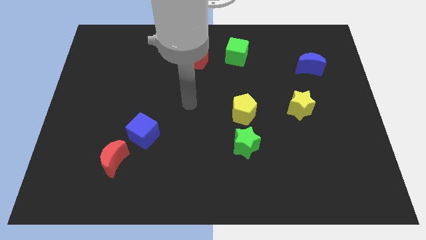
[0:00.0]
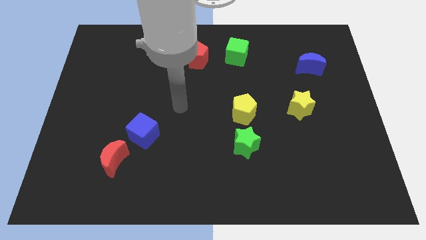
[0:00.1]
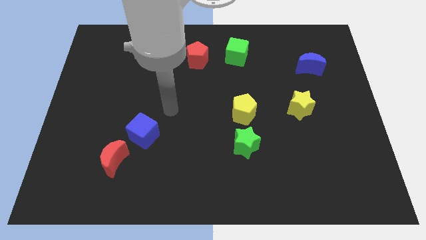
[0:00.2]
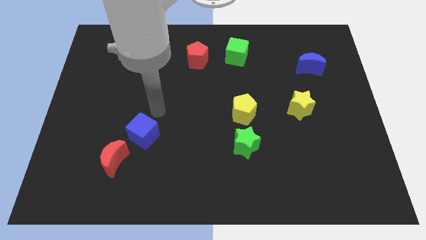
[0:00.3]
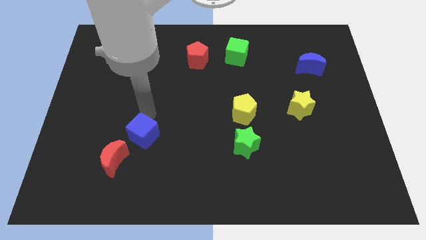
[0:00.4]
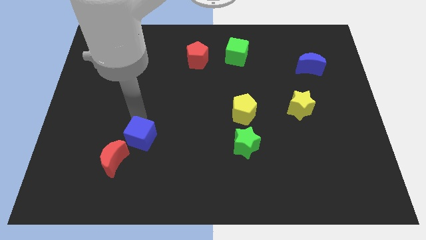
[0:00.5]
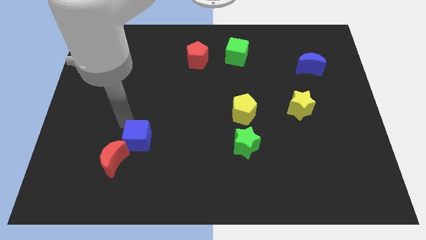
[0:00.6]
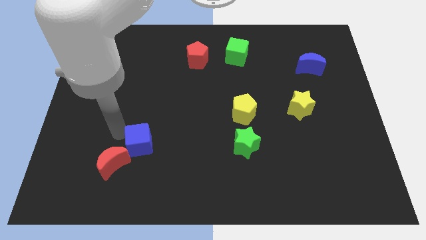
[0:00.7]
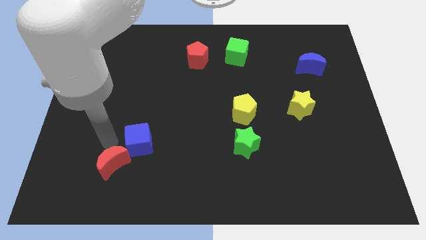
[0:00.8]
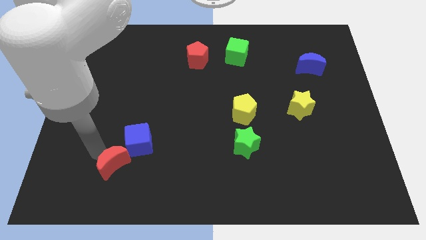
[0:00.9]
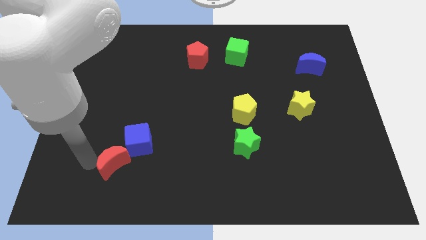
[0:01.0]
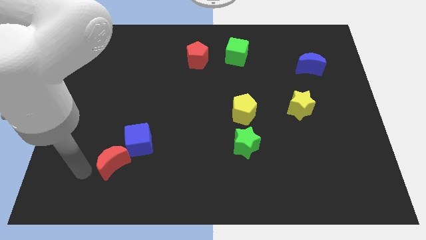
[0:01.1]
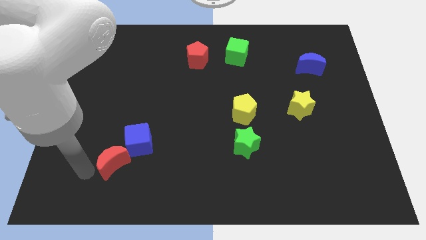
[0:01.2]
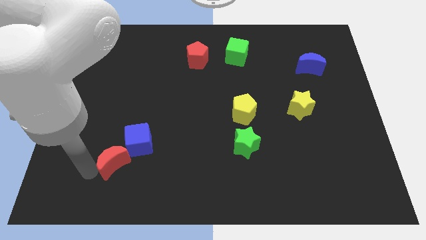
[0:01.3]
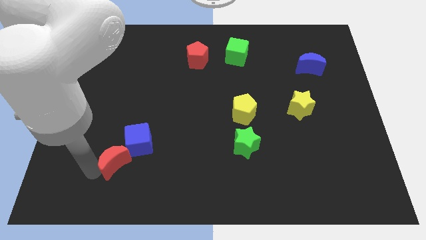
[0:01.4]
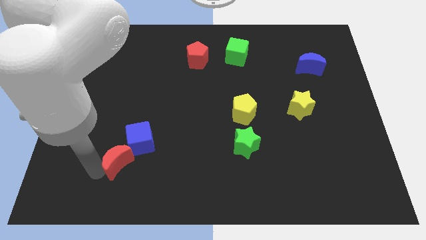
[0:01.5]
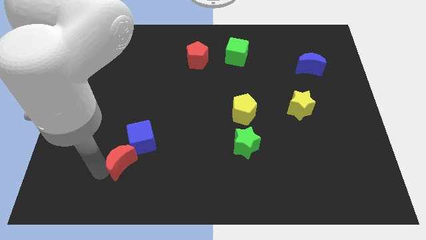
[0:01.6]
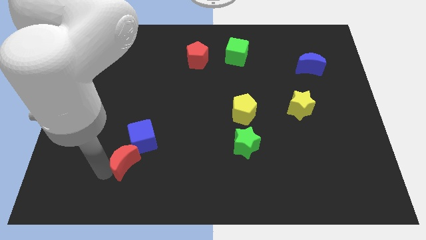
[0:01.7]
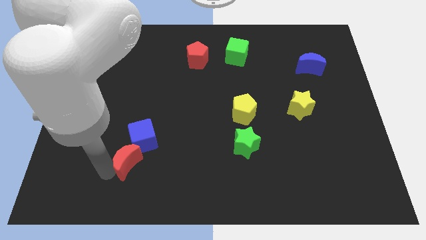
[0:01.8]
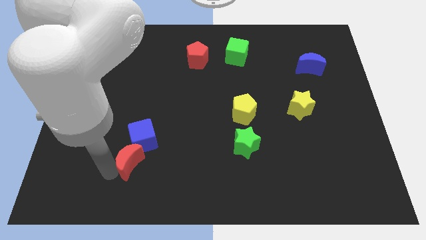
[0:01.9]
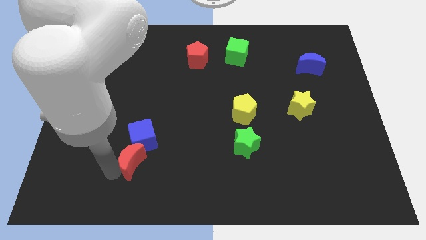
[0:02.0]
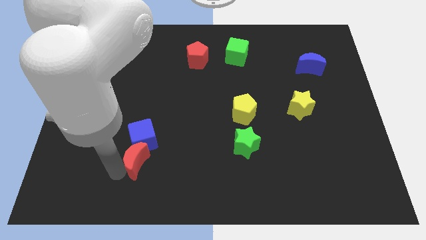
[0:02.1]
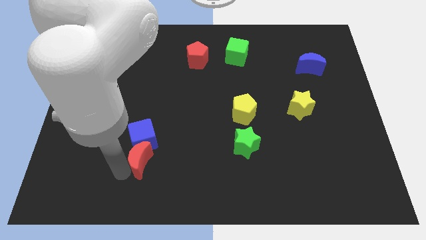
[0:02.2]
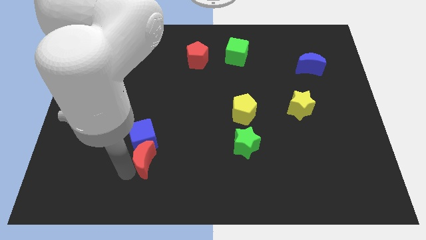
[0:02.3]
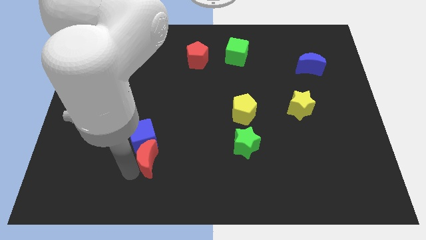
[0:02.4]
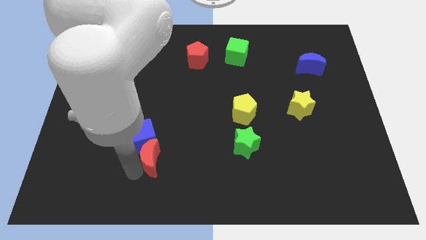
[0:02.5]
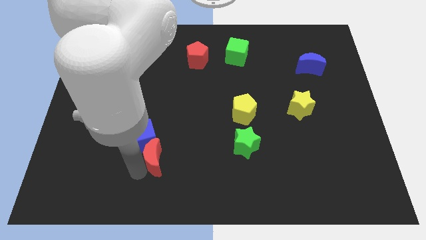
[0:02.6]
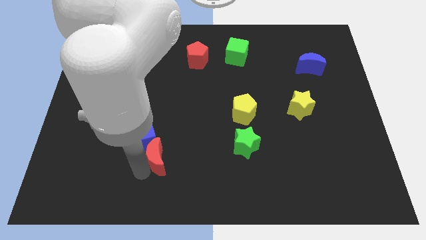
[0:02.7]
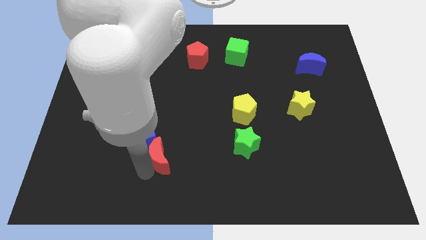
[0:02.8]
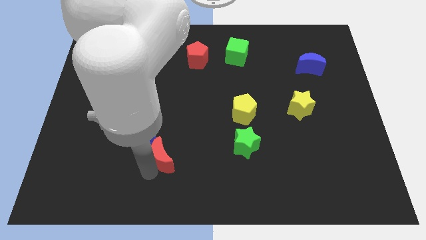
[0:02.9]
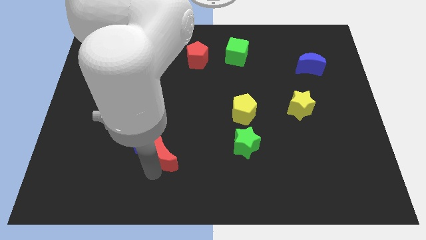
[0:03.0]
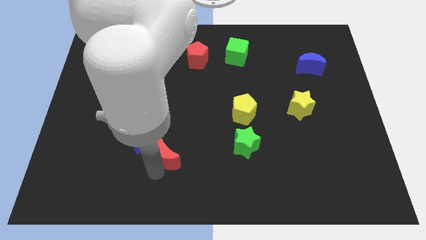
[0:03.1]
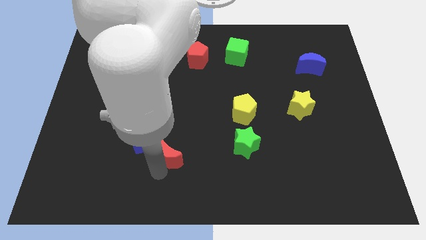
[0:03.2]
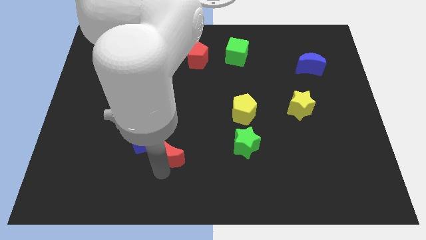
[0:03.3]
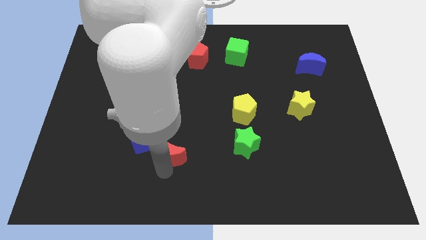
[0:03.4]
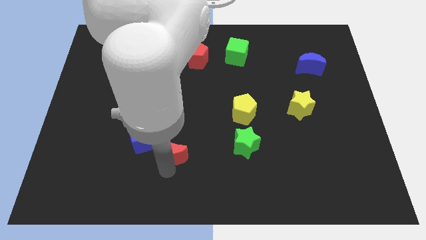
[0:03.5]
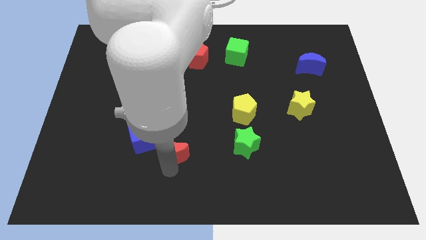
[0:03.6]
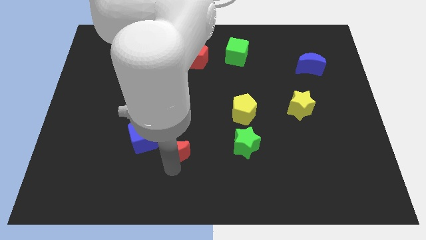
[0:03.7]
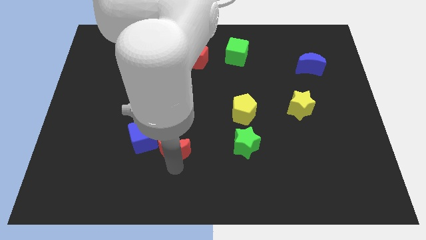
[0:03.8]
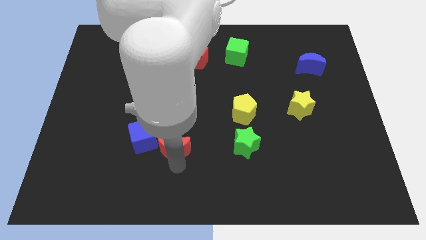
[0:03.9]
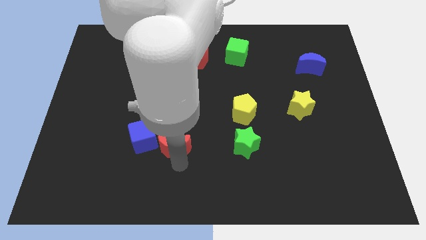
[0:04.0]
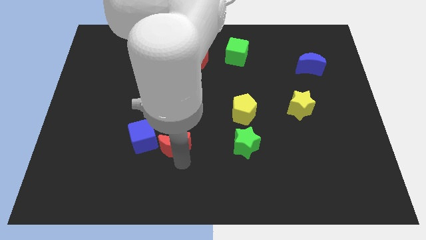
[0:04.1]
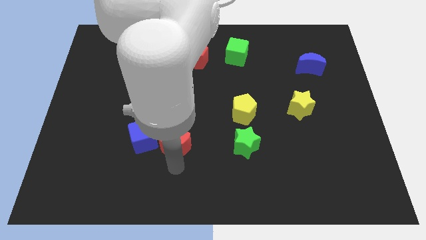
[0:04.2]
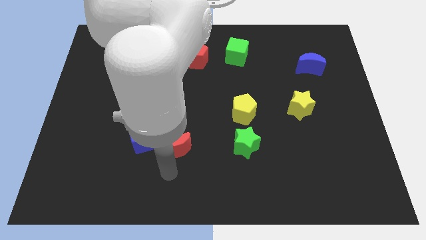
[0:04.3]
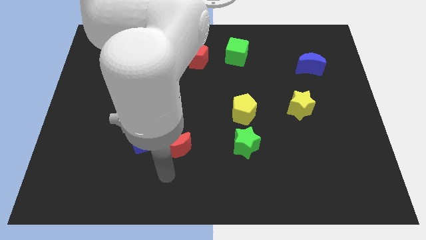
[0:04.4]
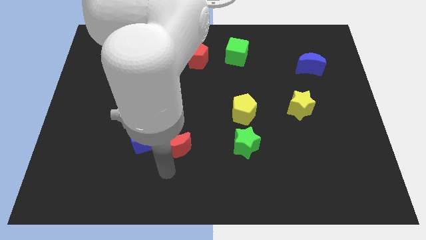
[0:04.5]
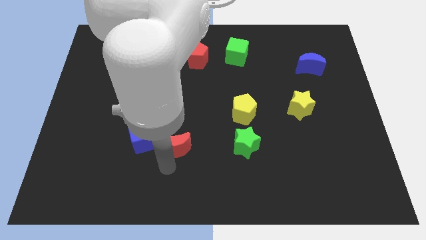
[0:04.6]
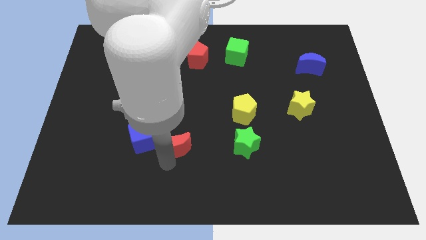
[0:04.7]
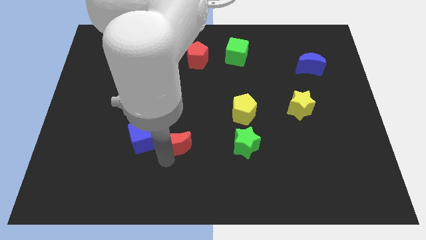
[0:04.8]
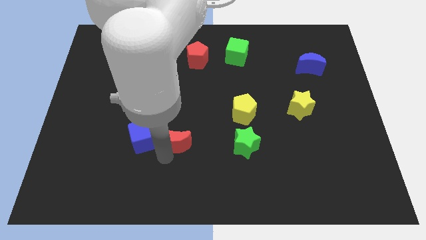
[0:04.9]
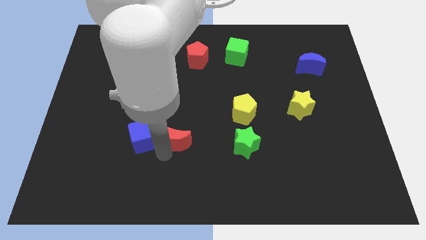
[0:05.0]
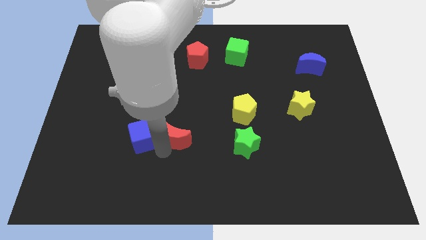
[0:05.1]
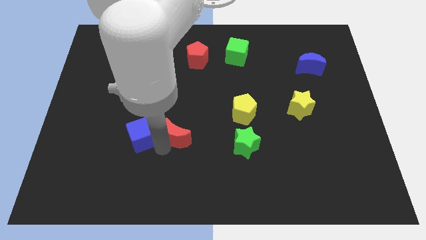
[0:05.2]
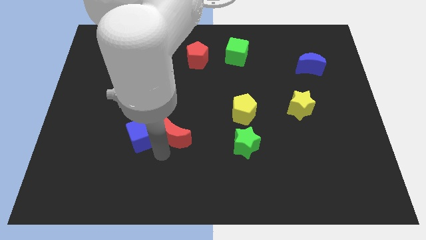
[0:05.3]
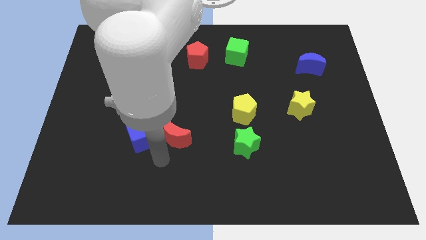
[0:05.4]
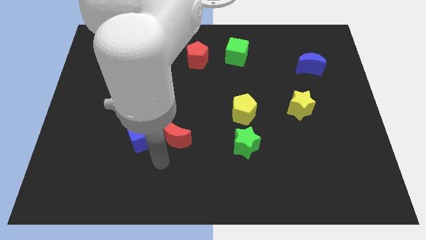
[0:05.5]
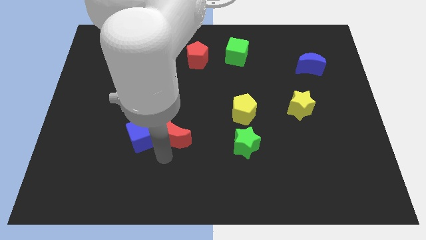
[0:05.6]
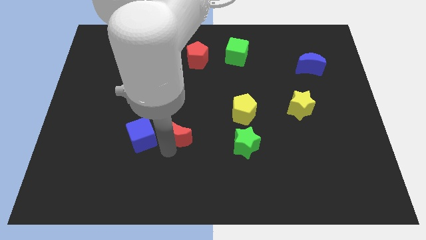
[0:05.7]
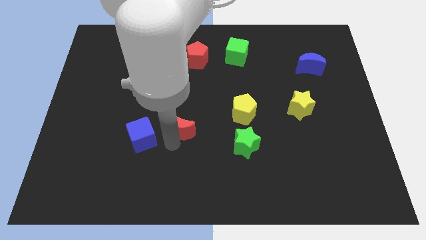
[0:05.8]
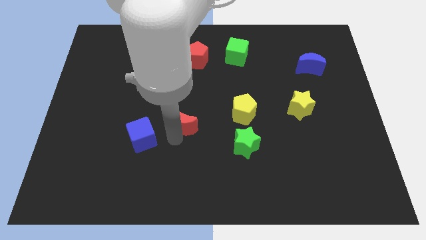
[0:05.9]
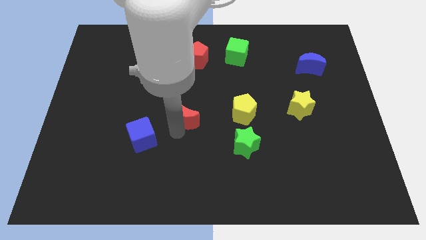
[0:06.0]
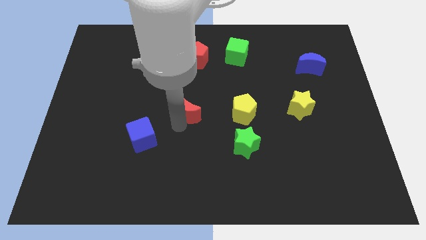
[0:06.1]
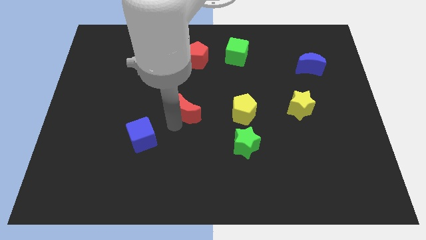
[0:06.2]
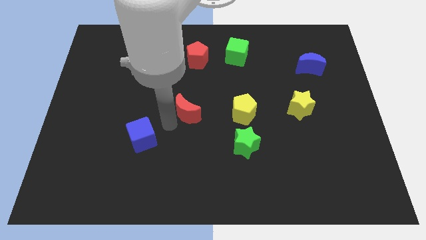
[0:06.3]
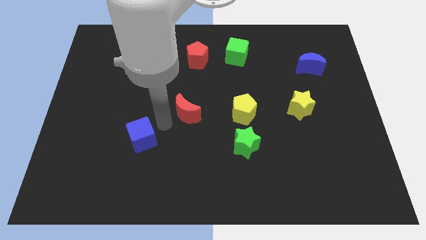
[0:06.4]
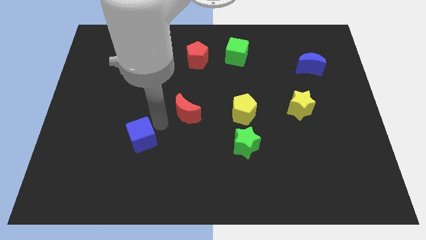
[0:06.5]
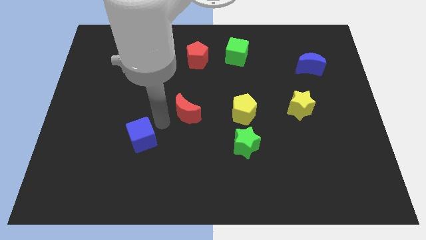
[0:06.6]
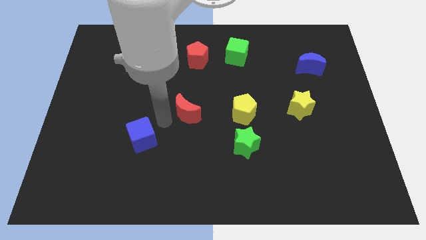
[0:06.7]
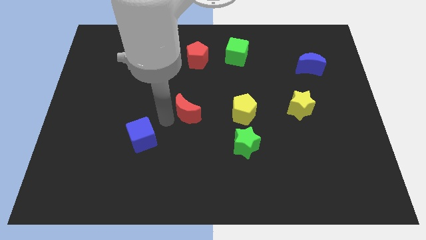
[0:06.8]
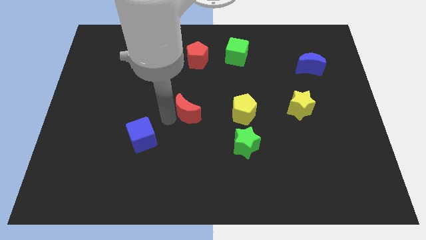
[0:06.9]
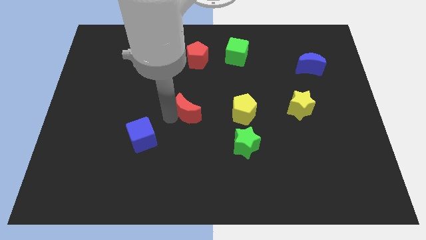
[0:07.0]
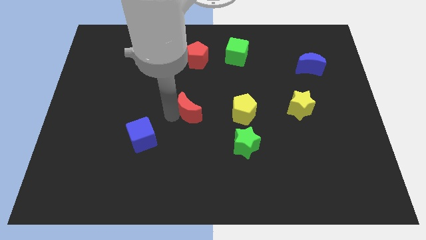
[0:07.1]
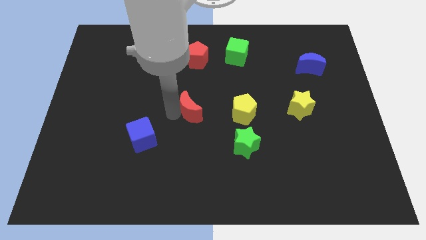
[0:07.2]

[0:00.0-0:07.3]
slide the red moon upwards and then right

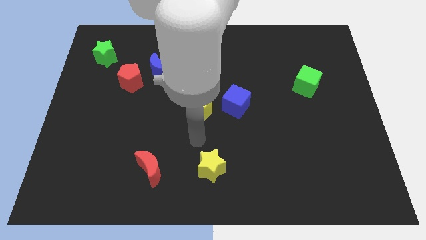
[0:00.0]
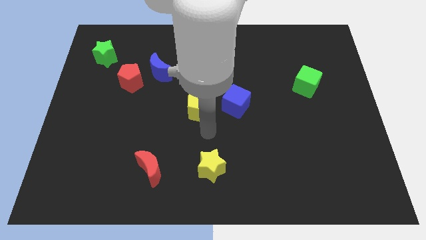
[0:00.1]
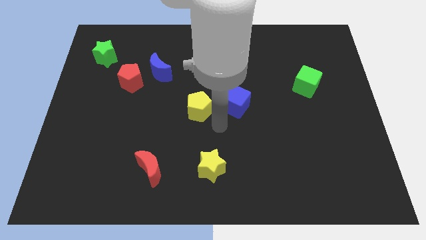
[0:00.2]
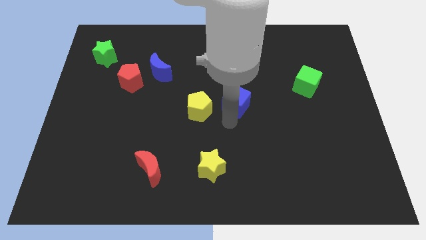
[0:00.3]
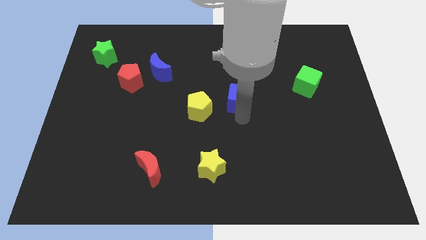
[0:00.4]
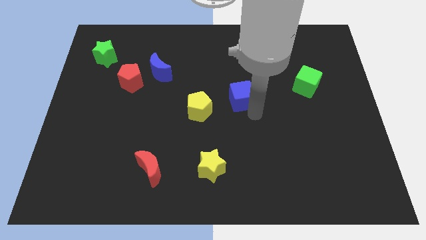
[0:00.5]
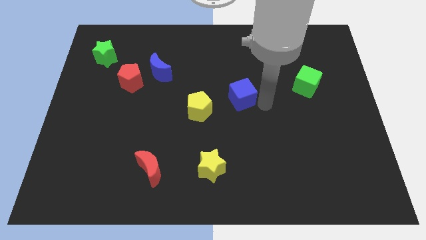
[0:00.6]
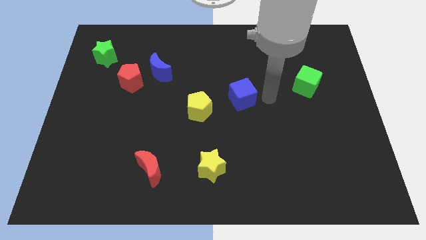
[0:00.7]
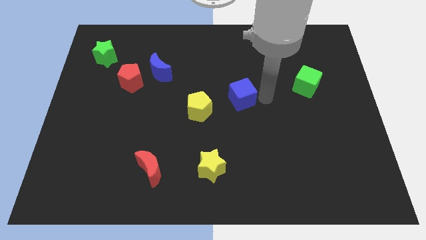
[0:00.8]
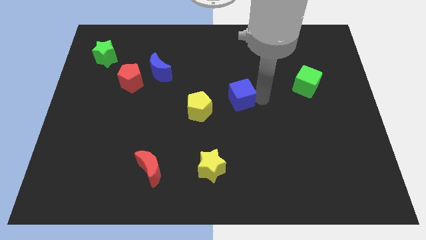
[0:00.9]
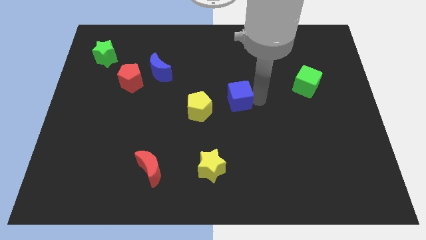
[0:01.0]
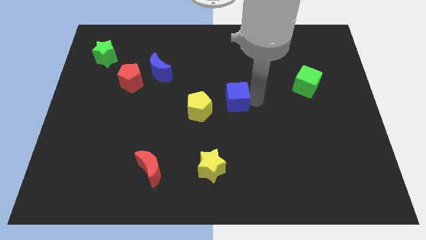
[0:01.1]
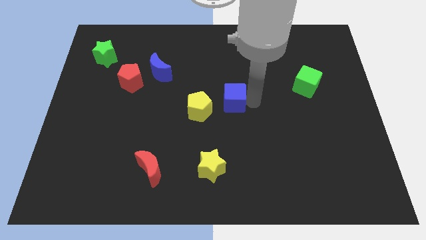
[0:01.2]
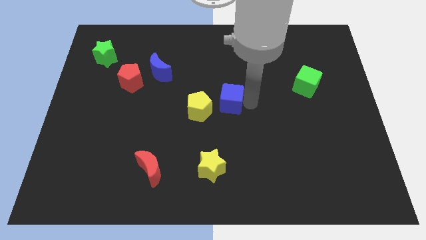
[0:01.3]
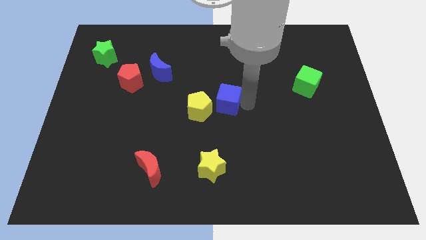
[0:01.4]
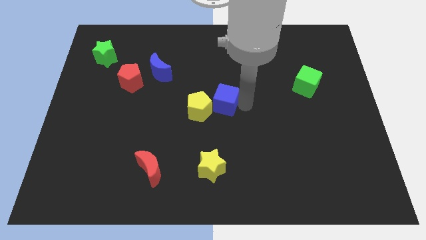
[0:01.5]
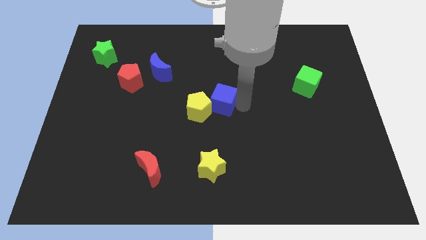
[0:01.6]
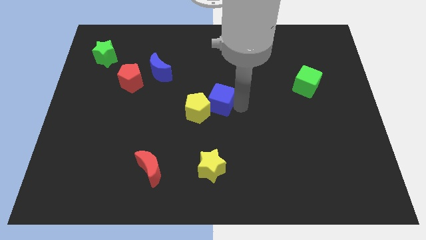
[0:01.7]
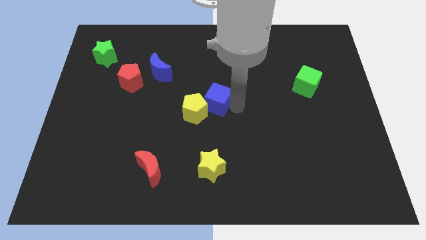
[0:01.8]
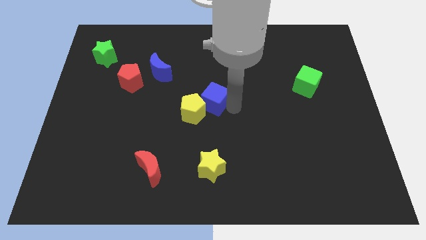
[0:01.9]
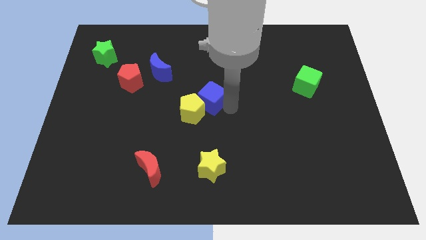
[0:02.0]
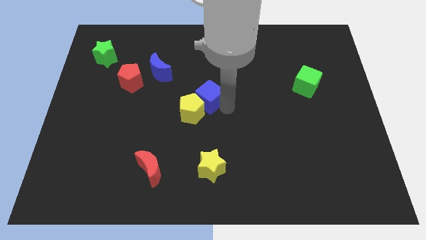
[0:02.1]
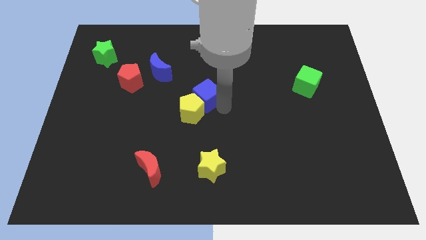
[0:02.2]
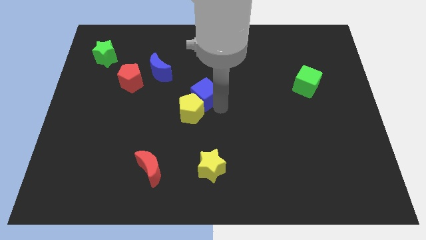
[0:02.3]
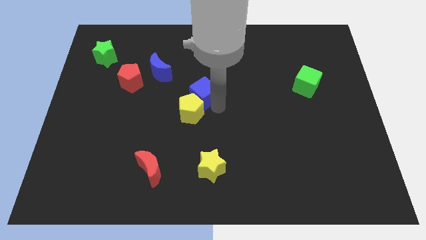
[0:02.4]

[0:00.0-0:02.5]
move the blue cube up and to the left slightly
